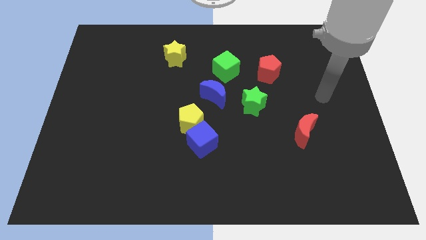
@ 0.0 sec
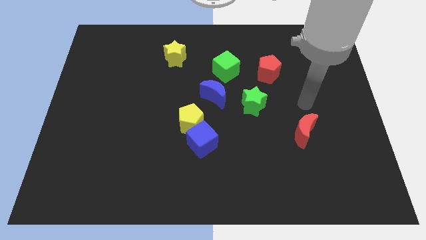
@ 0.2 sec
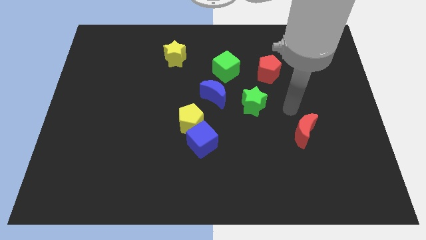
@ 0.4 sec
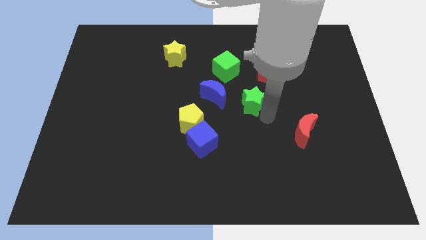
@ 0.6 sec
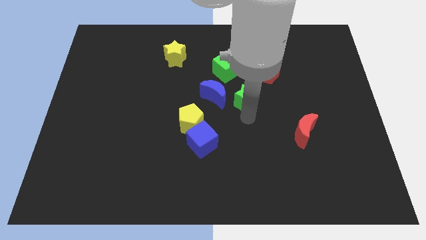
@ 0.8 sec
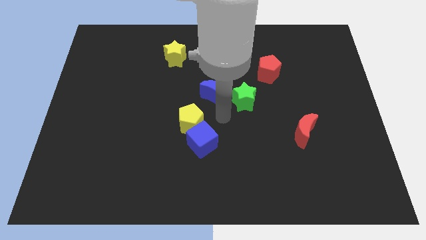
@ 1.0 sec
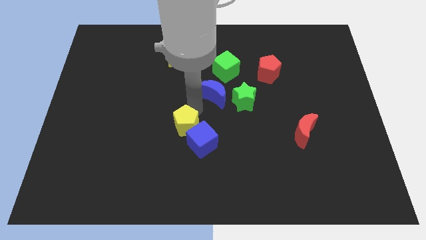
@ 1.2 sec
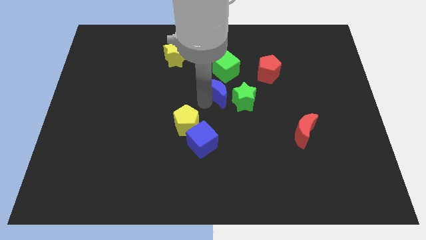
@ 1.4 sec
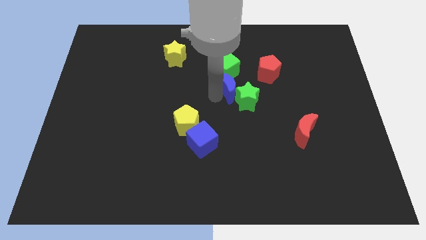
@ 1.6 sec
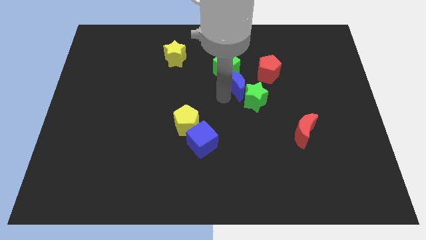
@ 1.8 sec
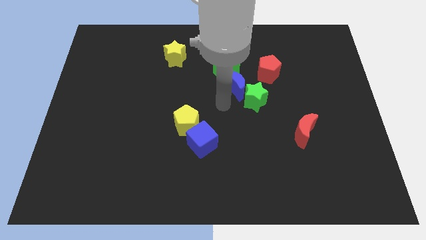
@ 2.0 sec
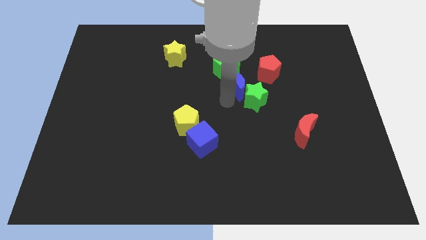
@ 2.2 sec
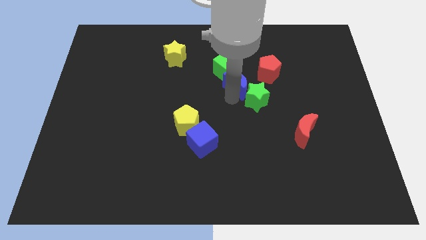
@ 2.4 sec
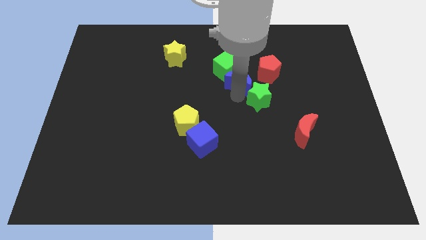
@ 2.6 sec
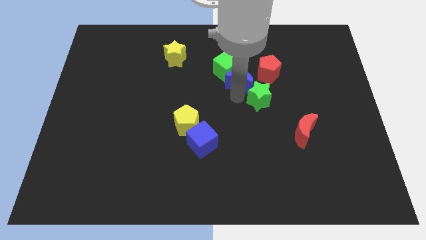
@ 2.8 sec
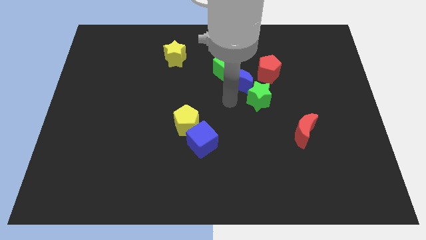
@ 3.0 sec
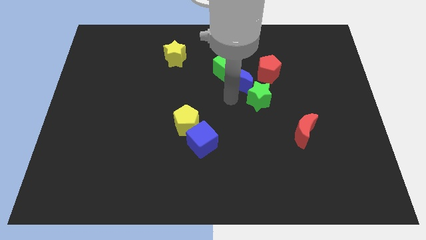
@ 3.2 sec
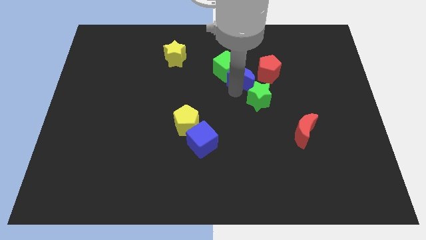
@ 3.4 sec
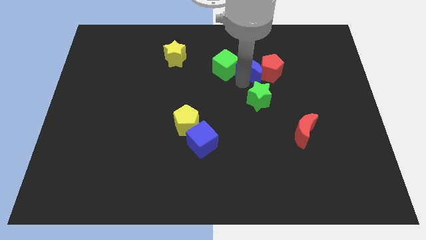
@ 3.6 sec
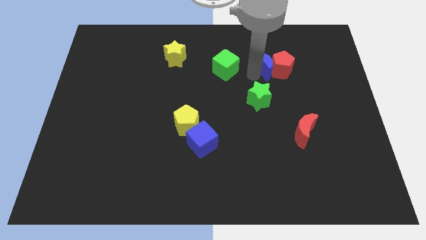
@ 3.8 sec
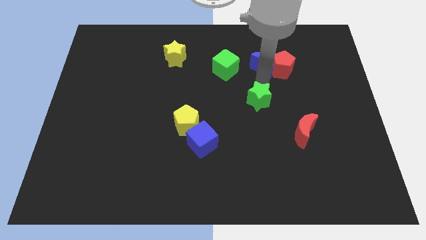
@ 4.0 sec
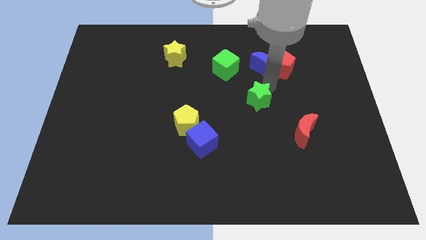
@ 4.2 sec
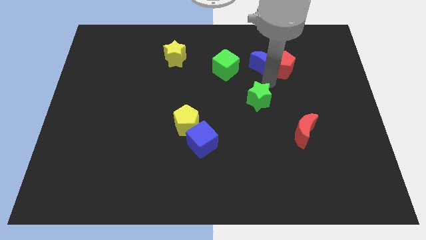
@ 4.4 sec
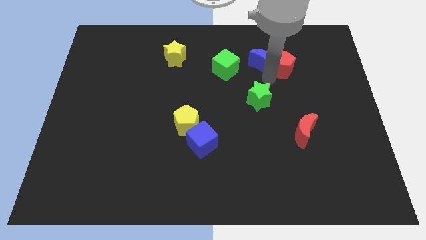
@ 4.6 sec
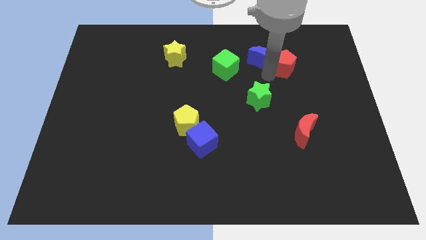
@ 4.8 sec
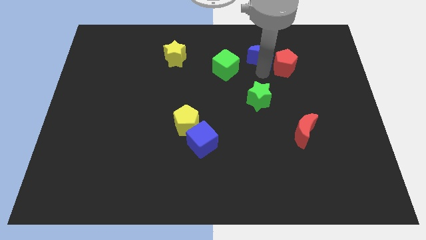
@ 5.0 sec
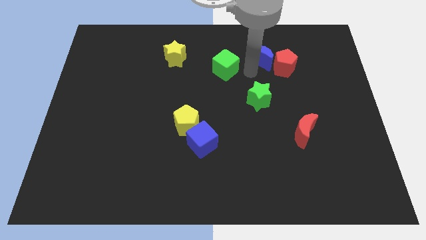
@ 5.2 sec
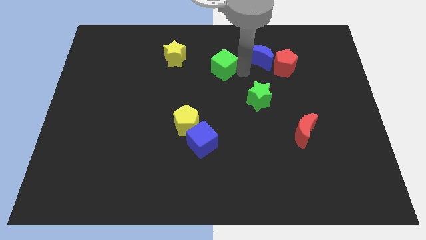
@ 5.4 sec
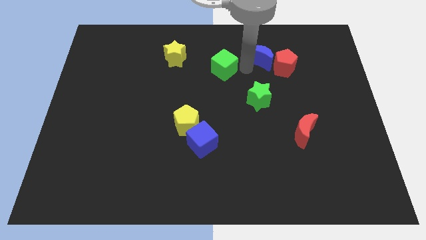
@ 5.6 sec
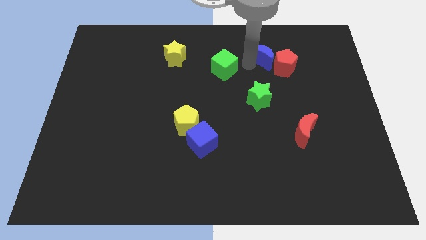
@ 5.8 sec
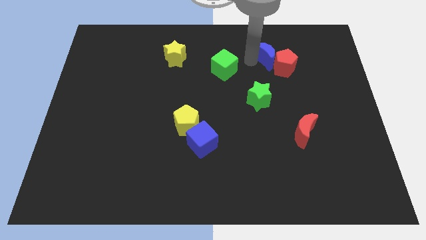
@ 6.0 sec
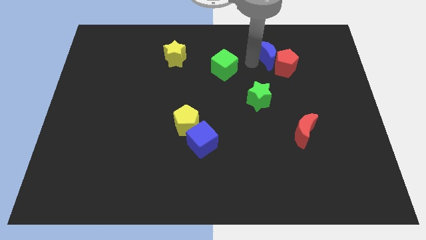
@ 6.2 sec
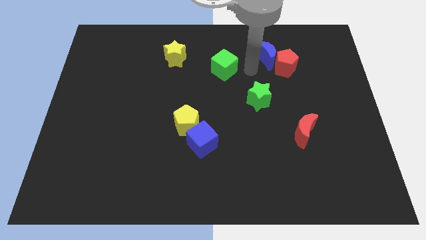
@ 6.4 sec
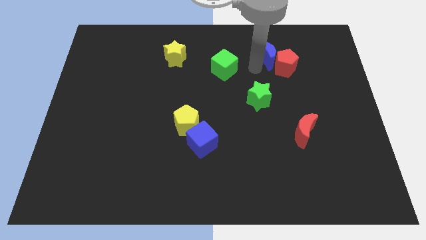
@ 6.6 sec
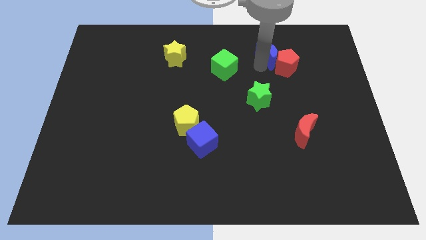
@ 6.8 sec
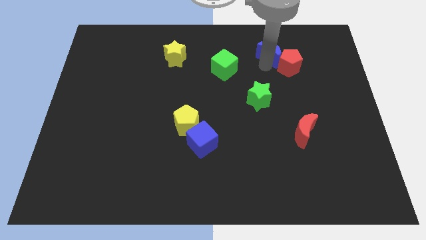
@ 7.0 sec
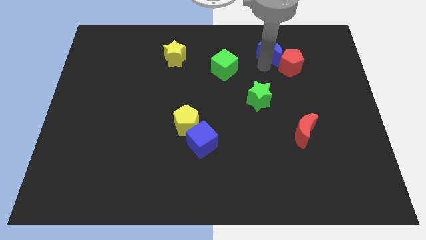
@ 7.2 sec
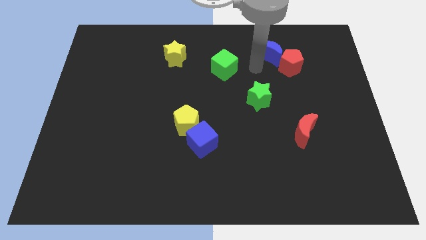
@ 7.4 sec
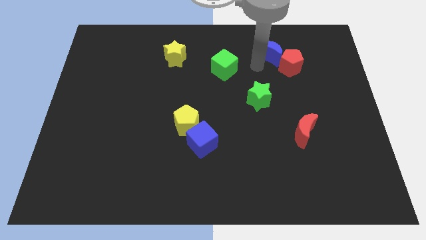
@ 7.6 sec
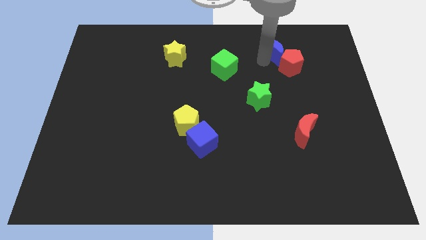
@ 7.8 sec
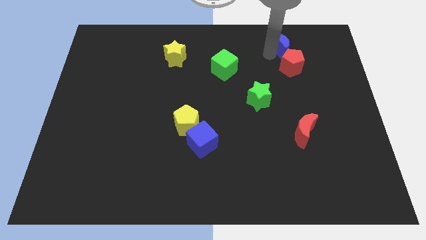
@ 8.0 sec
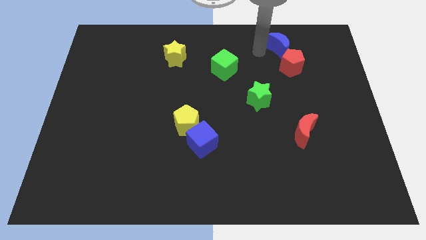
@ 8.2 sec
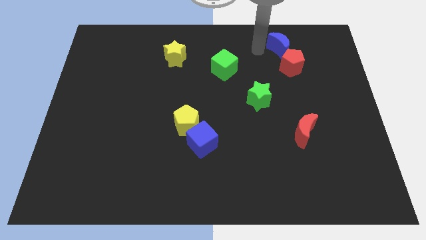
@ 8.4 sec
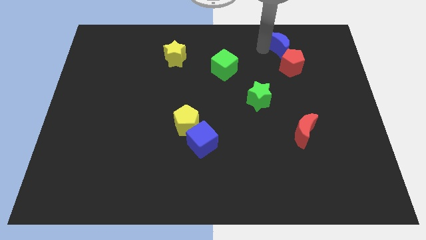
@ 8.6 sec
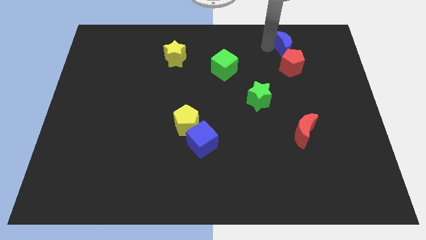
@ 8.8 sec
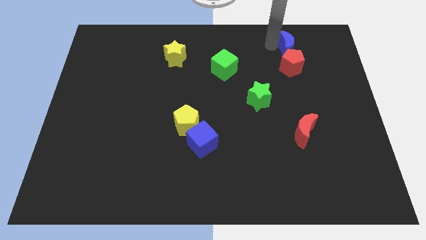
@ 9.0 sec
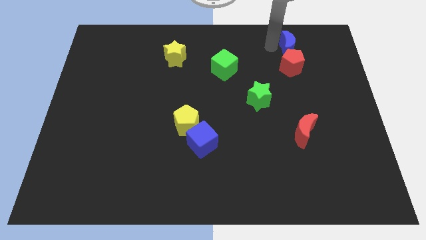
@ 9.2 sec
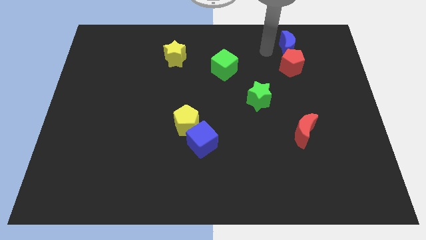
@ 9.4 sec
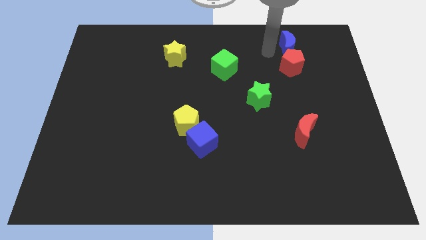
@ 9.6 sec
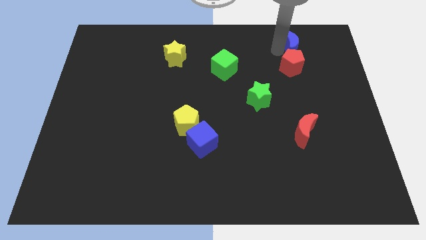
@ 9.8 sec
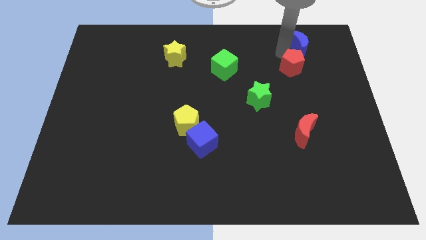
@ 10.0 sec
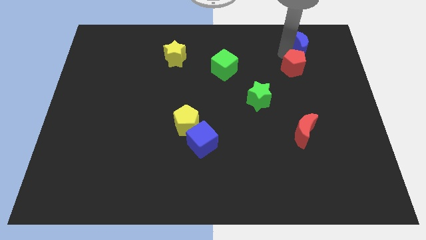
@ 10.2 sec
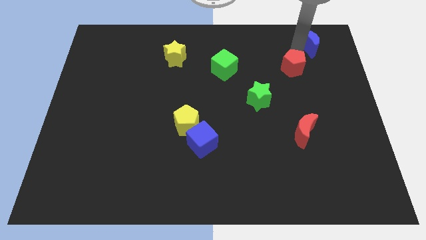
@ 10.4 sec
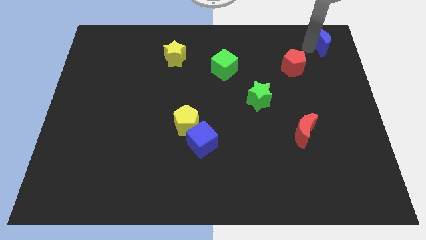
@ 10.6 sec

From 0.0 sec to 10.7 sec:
push the blue moon to the top right corner

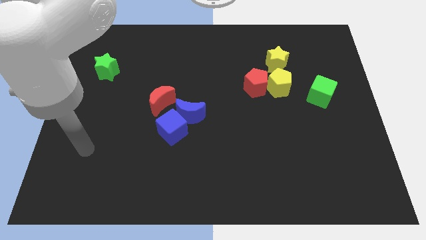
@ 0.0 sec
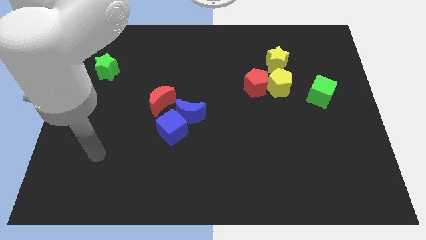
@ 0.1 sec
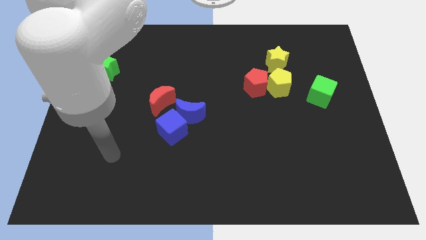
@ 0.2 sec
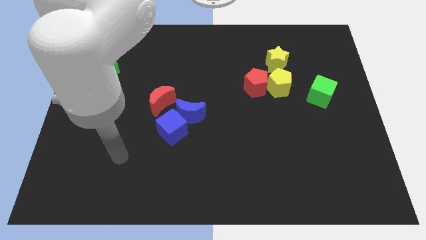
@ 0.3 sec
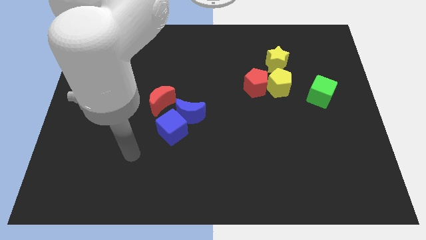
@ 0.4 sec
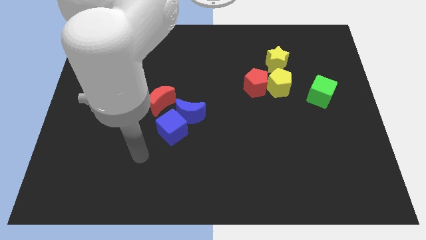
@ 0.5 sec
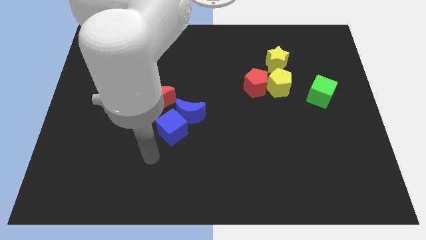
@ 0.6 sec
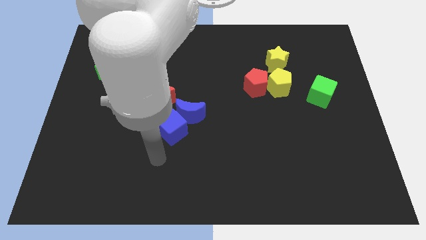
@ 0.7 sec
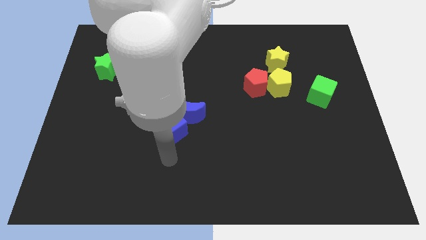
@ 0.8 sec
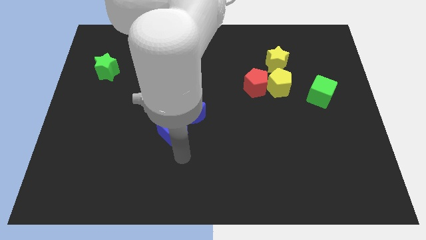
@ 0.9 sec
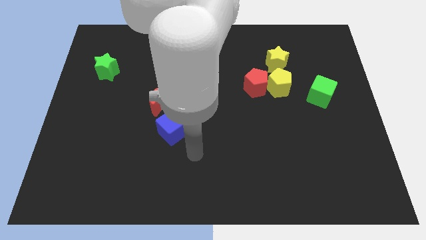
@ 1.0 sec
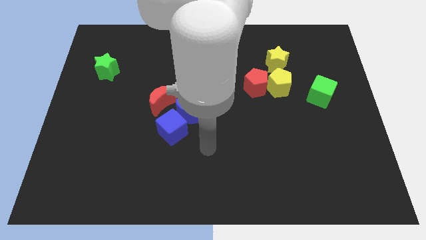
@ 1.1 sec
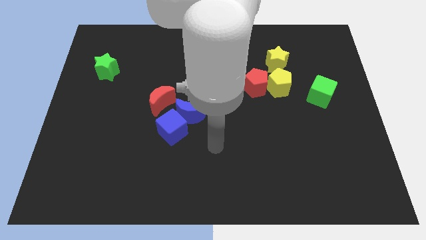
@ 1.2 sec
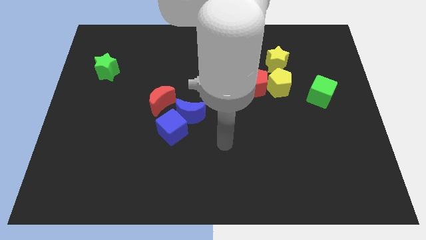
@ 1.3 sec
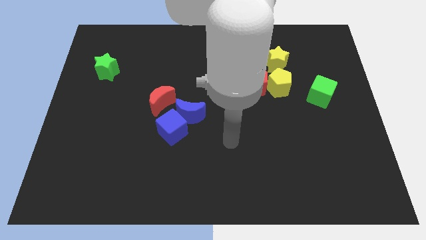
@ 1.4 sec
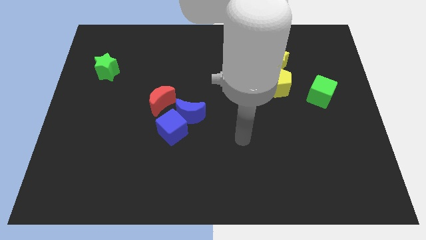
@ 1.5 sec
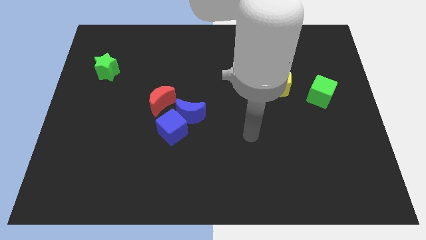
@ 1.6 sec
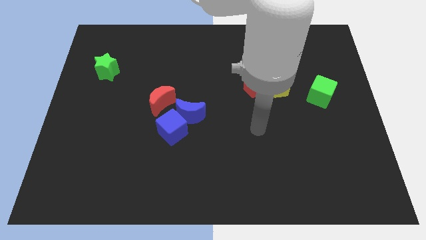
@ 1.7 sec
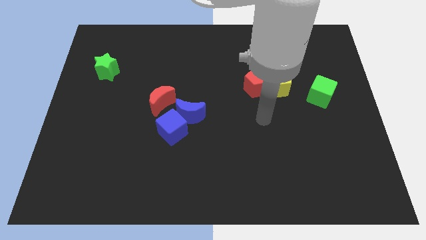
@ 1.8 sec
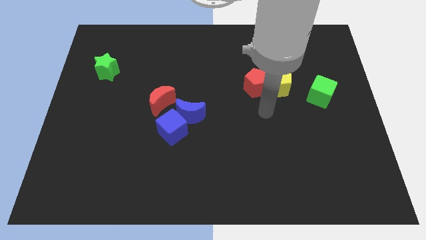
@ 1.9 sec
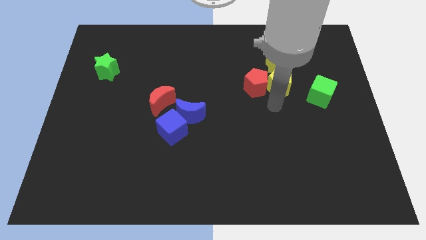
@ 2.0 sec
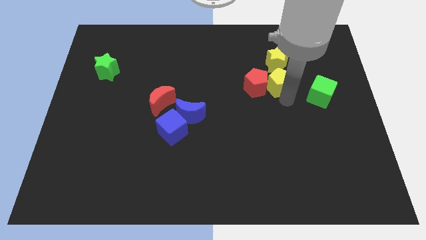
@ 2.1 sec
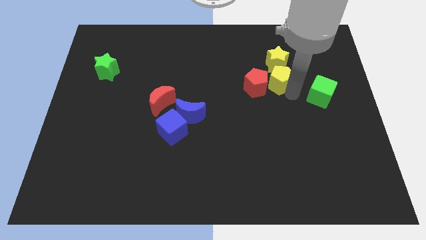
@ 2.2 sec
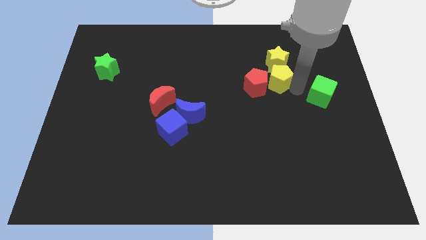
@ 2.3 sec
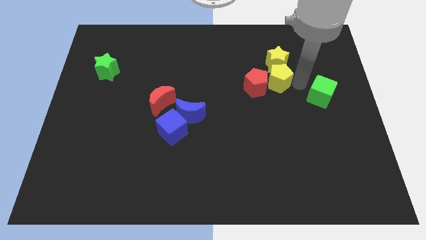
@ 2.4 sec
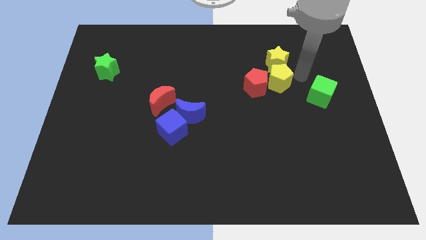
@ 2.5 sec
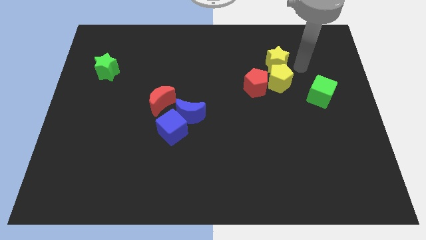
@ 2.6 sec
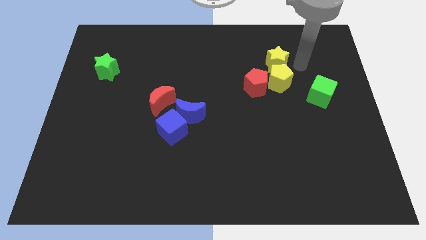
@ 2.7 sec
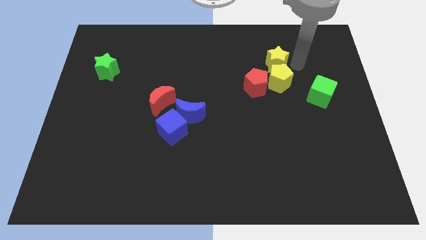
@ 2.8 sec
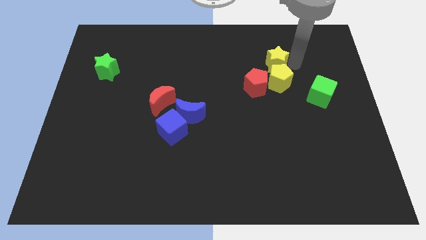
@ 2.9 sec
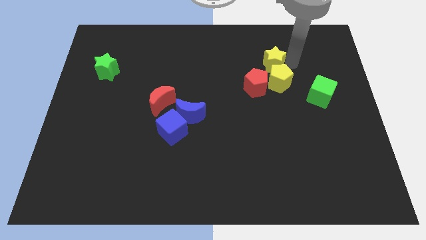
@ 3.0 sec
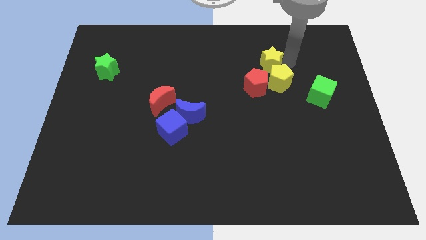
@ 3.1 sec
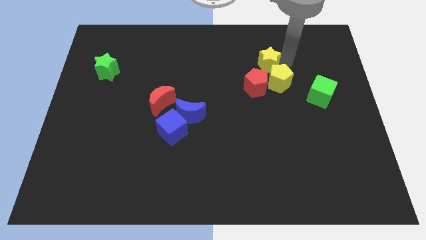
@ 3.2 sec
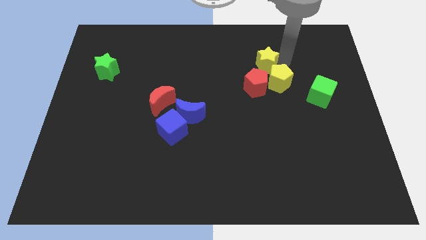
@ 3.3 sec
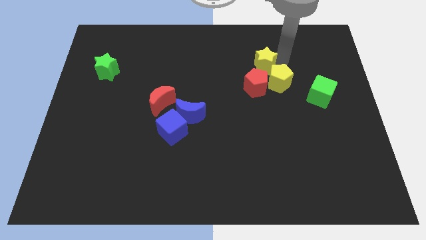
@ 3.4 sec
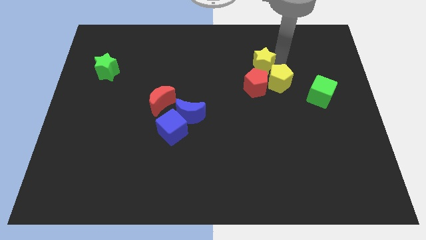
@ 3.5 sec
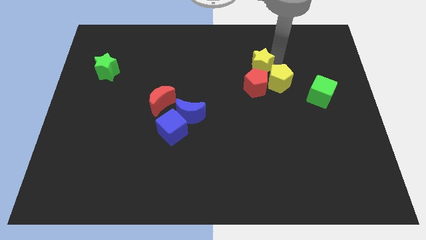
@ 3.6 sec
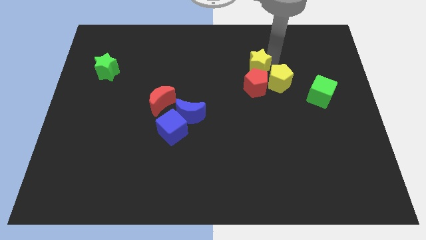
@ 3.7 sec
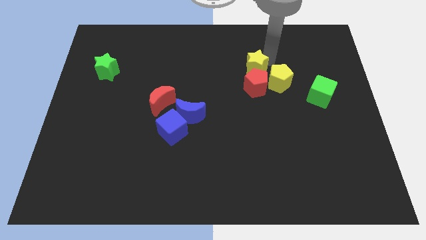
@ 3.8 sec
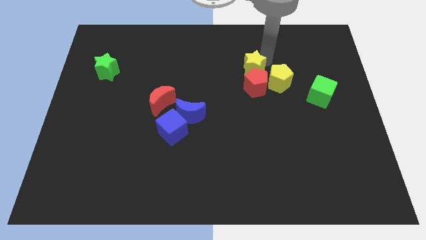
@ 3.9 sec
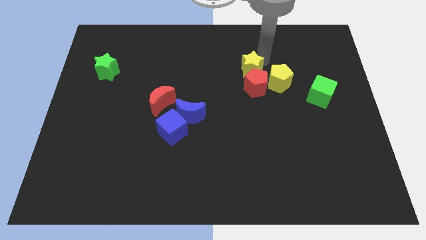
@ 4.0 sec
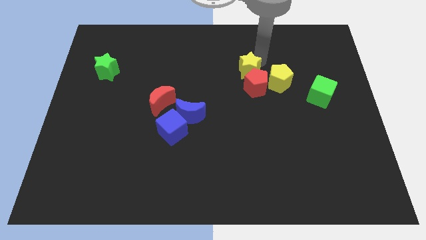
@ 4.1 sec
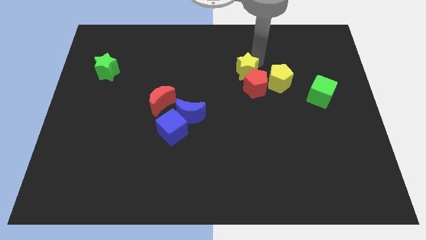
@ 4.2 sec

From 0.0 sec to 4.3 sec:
put the yellow star to the center of the board
